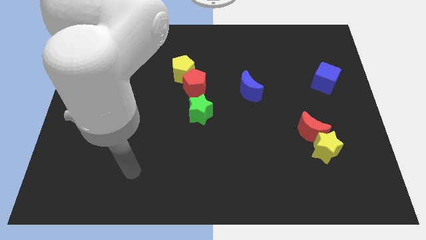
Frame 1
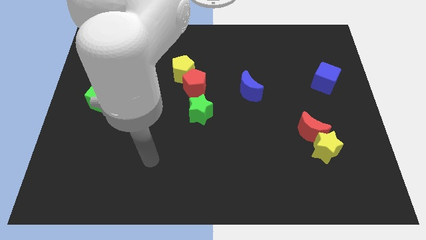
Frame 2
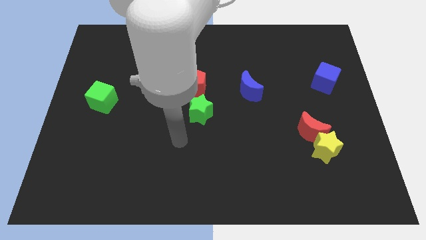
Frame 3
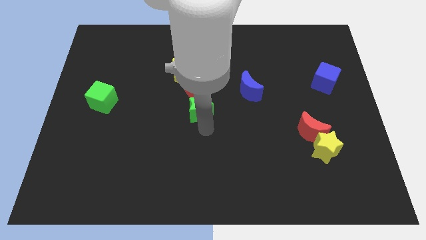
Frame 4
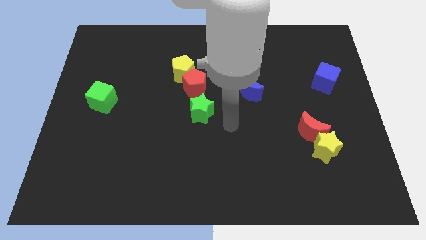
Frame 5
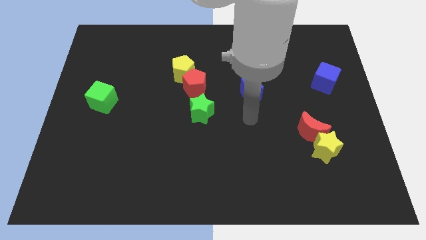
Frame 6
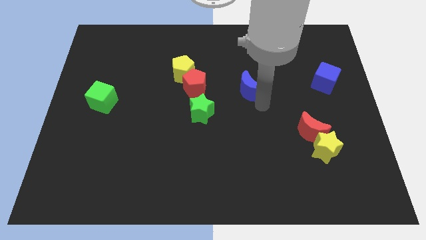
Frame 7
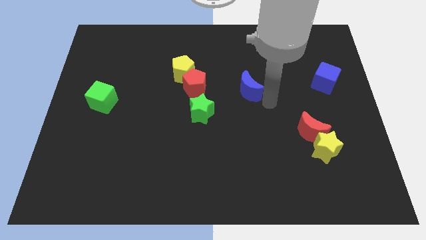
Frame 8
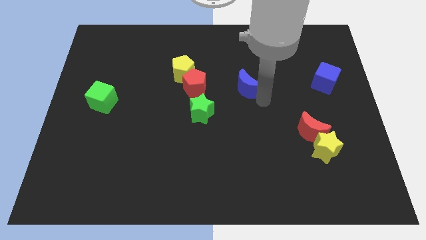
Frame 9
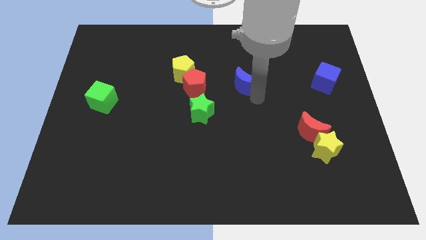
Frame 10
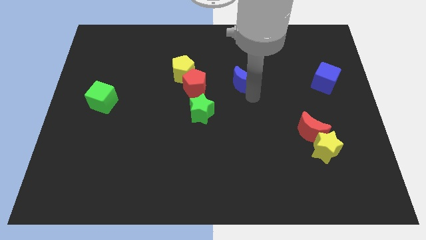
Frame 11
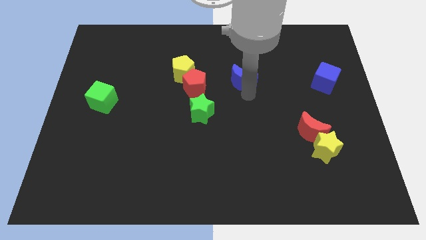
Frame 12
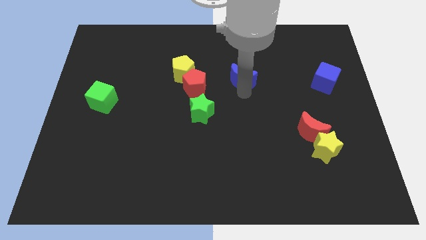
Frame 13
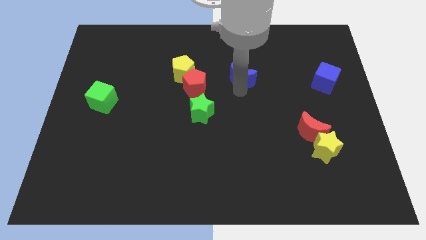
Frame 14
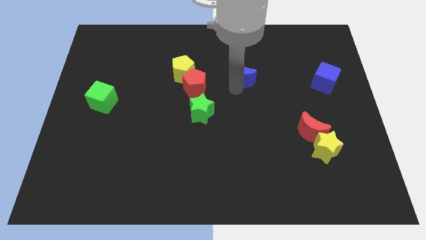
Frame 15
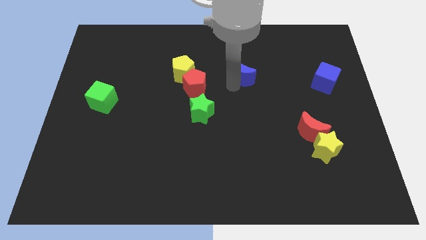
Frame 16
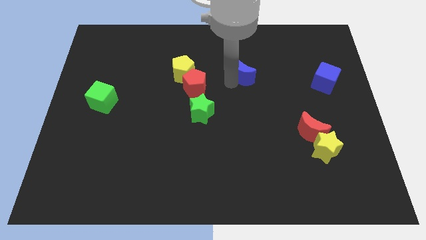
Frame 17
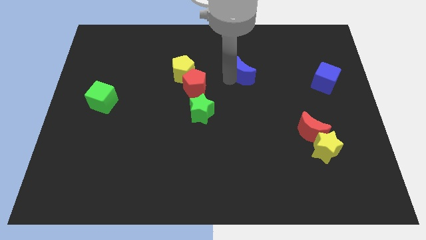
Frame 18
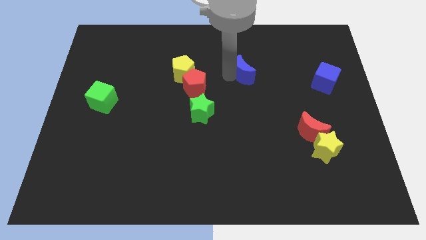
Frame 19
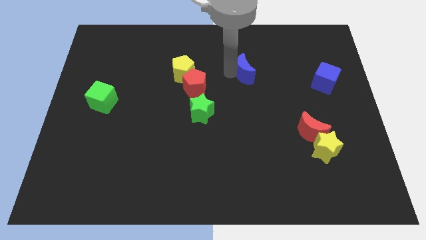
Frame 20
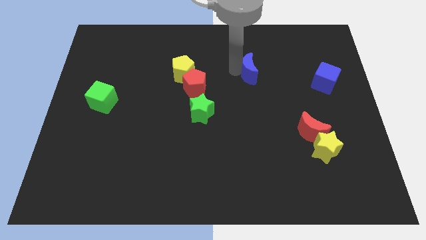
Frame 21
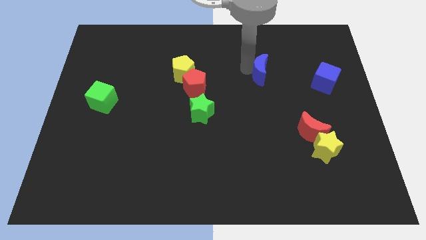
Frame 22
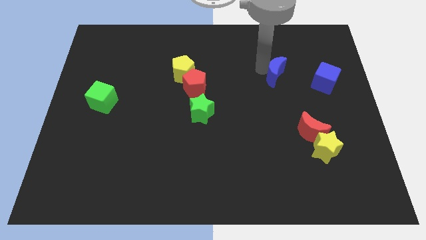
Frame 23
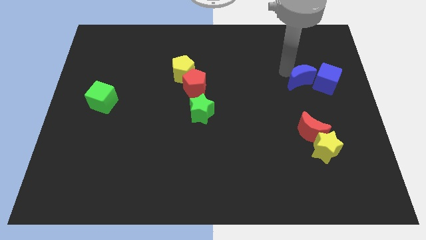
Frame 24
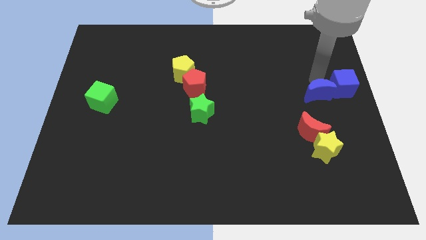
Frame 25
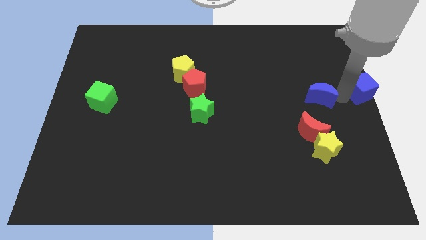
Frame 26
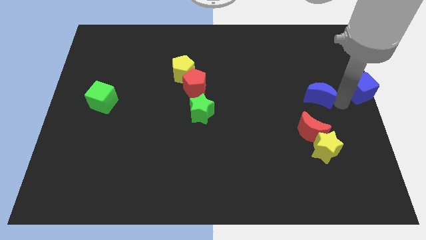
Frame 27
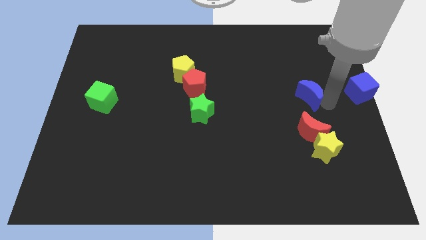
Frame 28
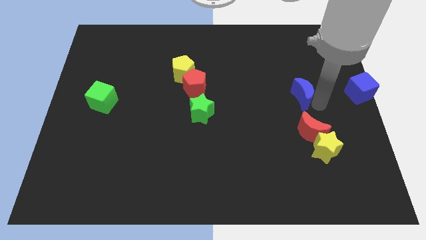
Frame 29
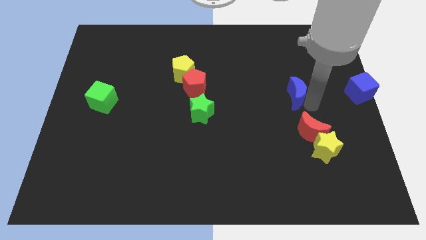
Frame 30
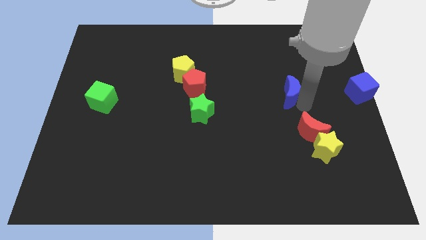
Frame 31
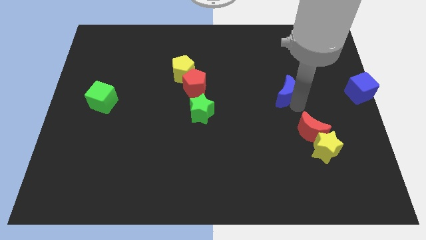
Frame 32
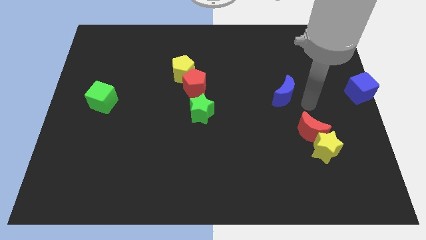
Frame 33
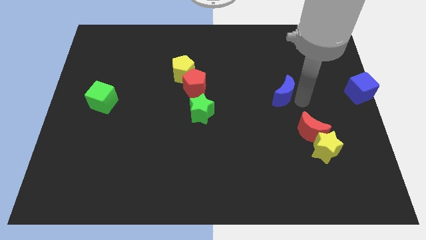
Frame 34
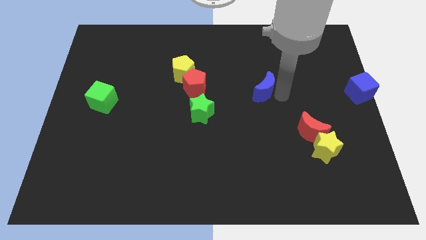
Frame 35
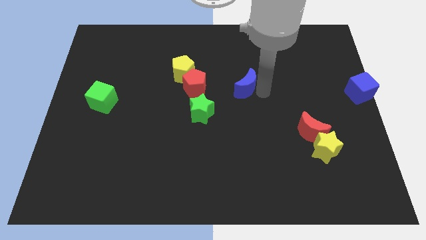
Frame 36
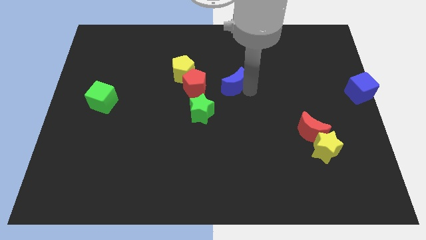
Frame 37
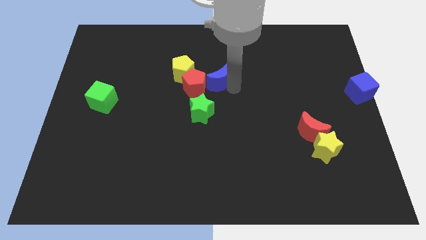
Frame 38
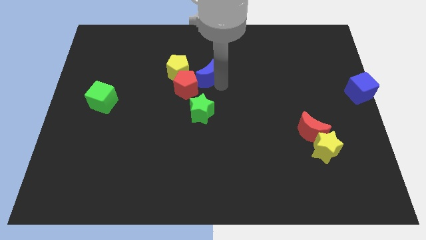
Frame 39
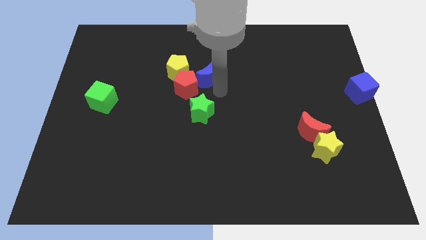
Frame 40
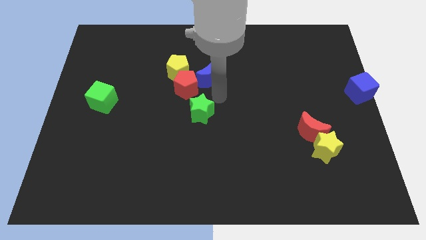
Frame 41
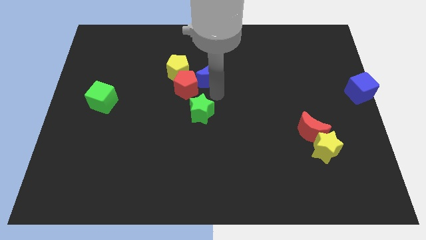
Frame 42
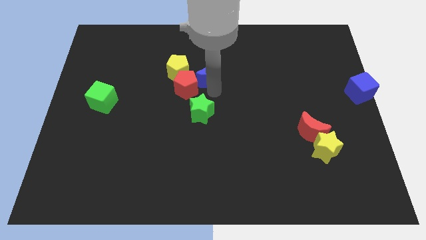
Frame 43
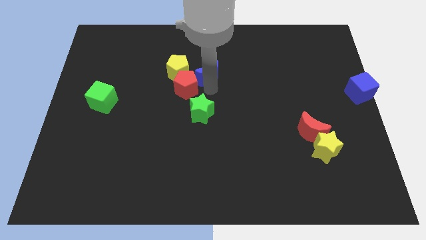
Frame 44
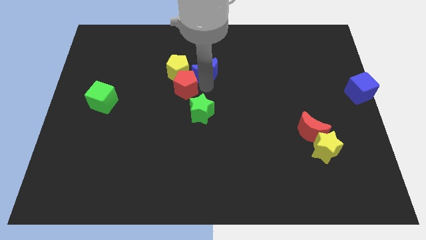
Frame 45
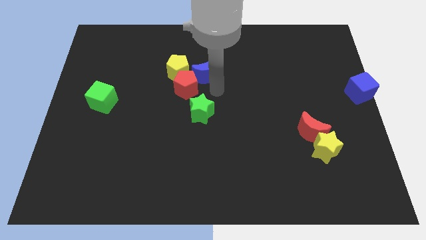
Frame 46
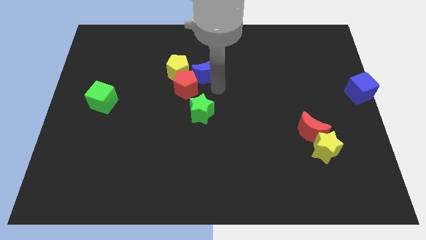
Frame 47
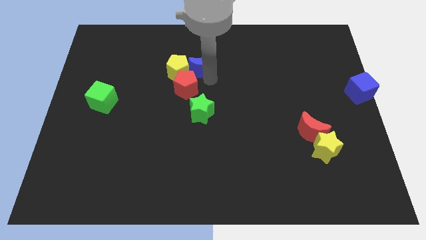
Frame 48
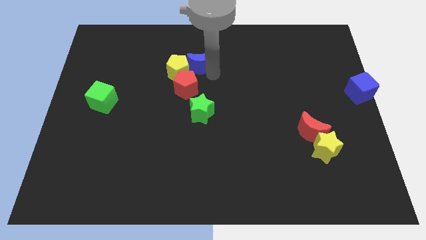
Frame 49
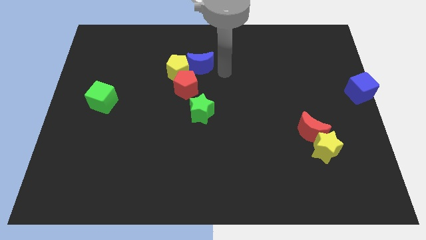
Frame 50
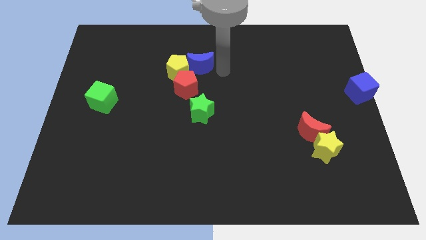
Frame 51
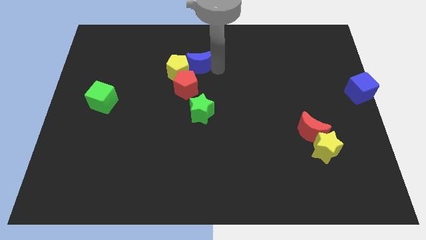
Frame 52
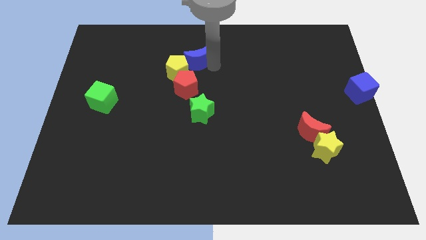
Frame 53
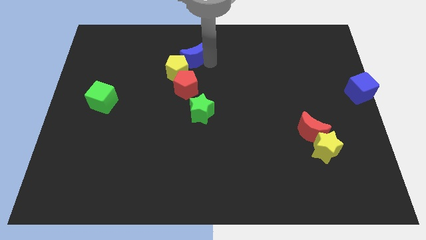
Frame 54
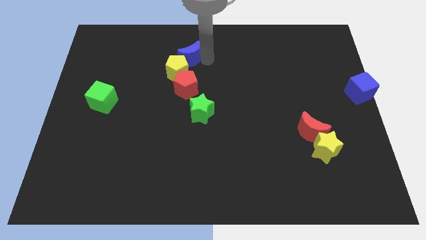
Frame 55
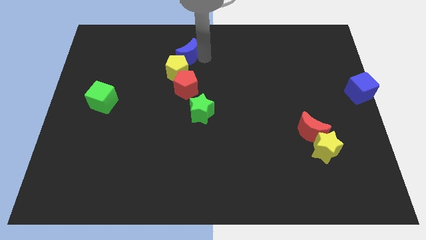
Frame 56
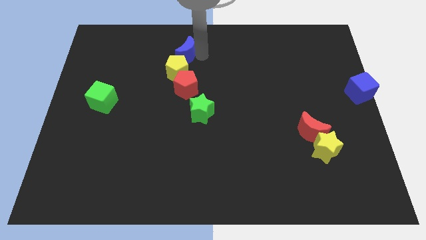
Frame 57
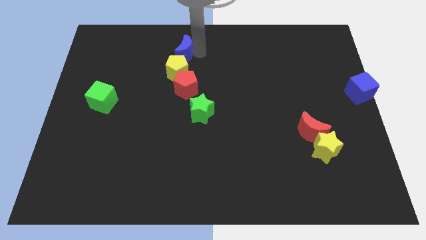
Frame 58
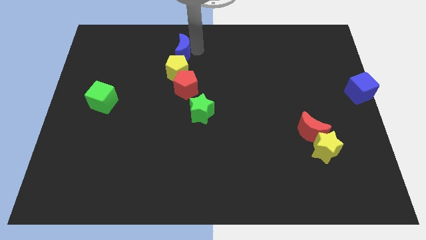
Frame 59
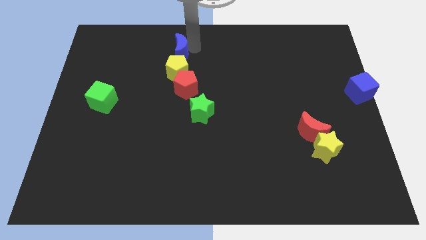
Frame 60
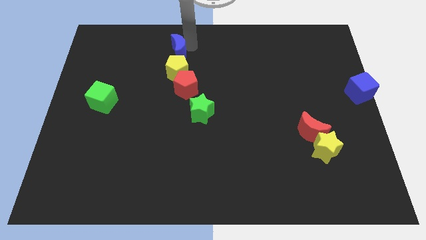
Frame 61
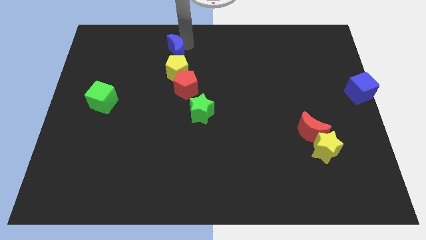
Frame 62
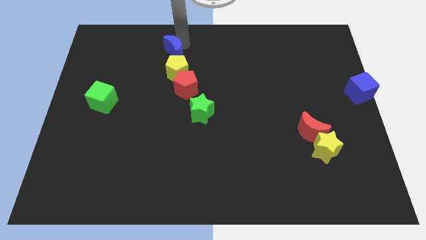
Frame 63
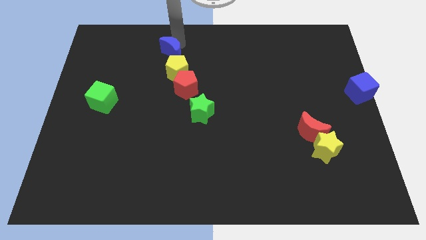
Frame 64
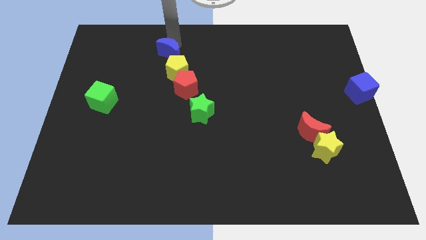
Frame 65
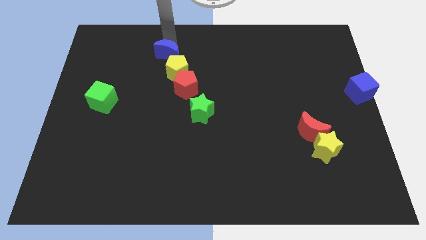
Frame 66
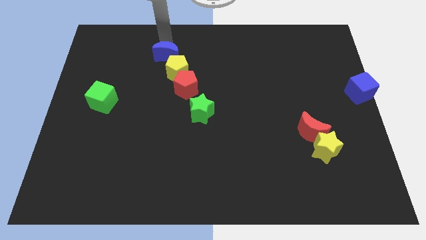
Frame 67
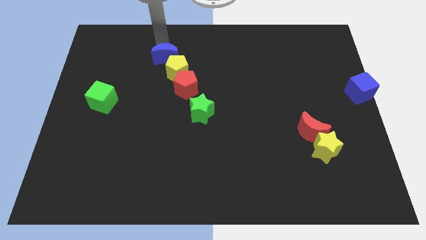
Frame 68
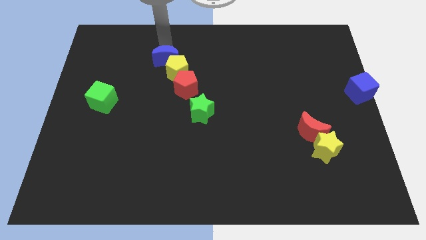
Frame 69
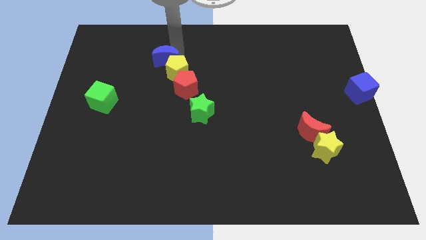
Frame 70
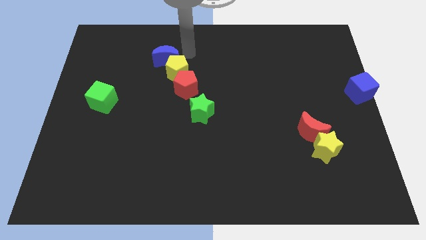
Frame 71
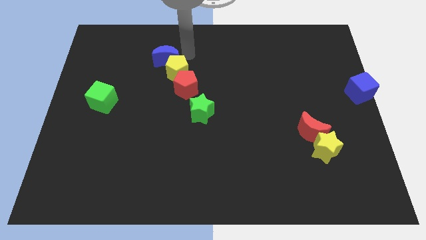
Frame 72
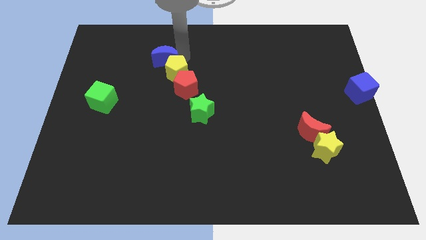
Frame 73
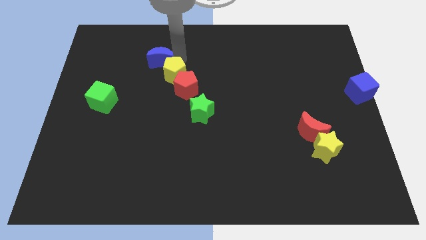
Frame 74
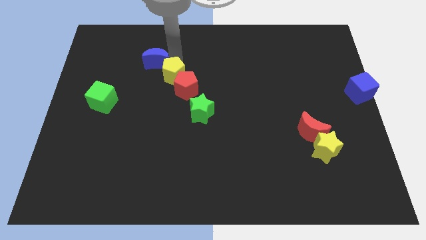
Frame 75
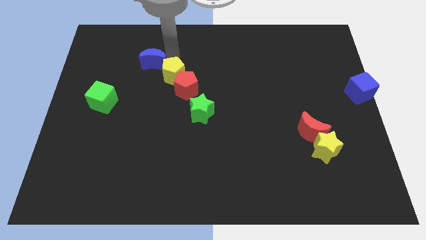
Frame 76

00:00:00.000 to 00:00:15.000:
slide the blue moon to the left

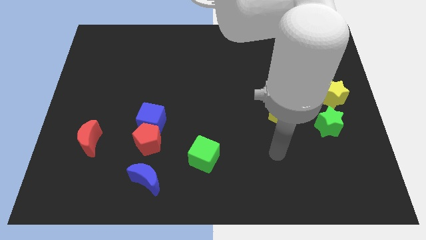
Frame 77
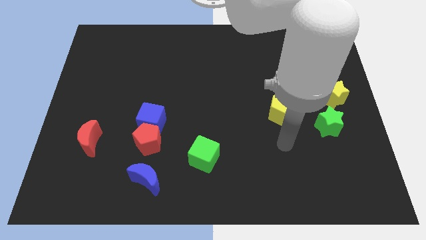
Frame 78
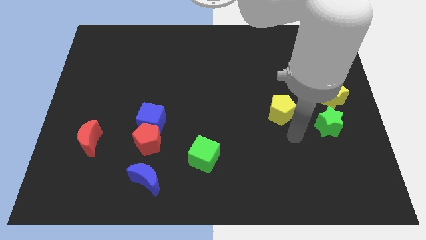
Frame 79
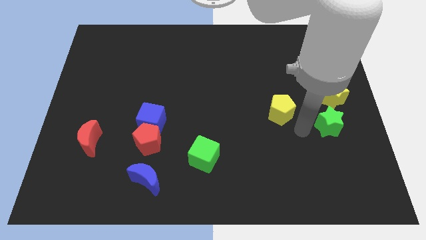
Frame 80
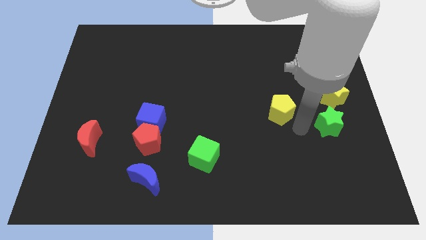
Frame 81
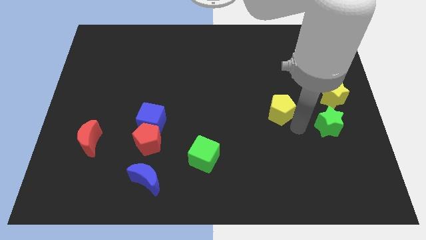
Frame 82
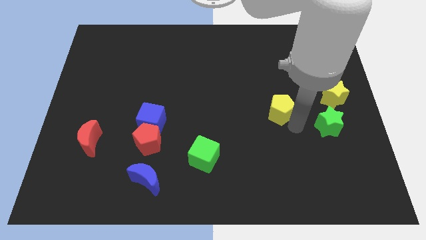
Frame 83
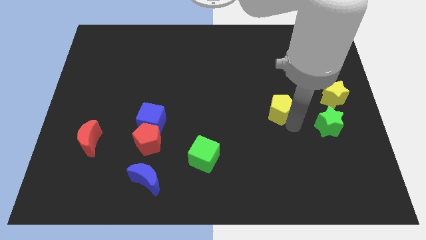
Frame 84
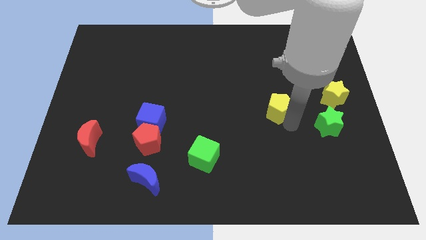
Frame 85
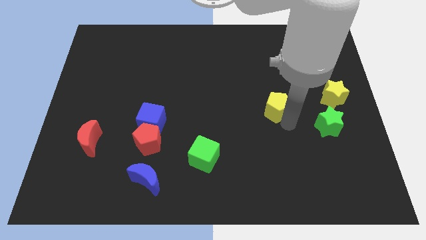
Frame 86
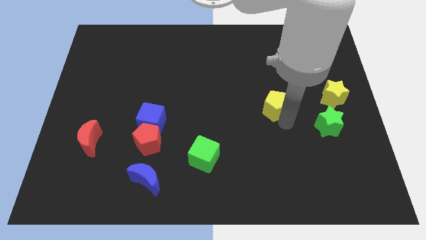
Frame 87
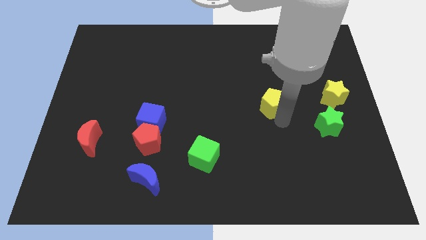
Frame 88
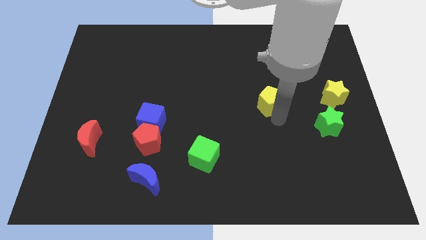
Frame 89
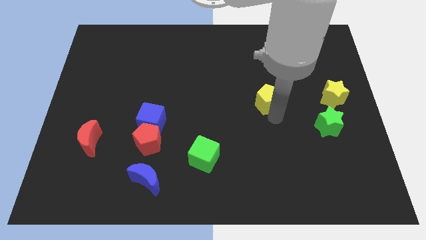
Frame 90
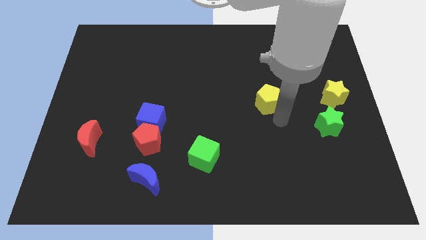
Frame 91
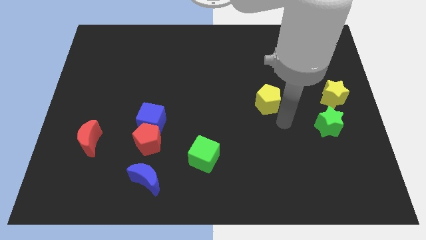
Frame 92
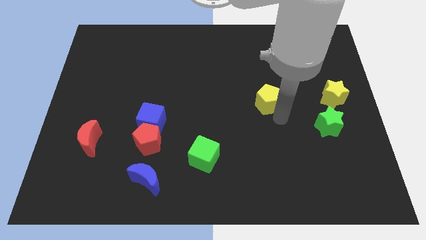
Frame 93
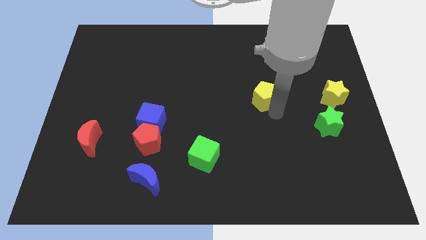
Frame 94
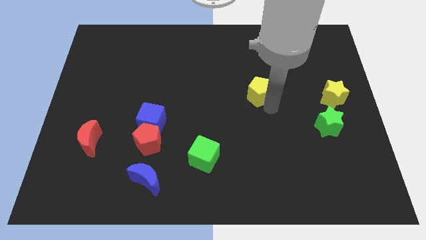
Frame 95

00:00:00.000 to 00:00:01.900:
slightly move the yellow pentagon diagonally upwards and left
